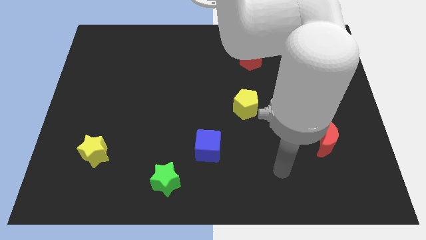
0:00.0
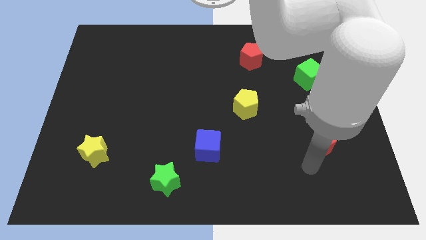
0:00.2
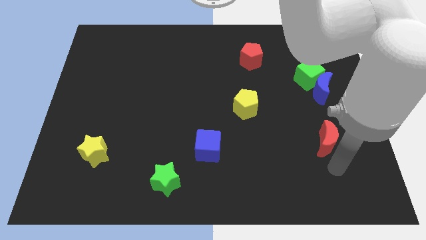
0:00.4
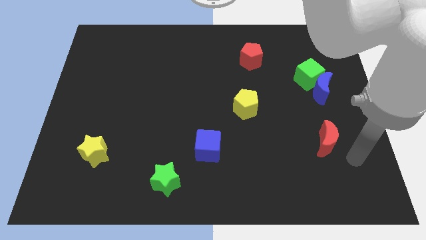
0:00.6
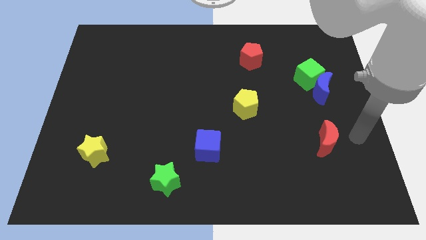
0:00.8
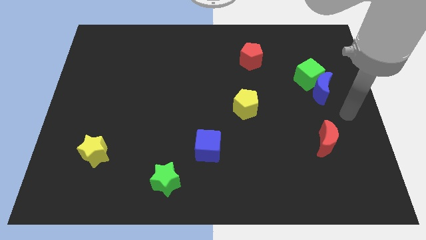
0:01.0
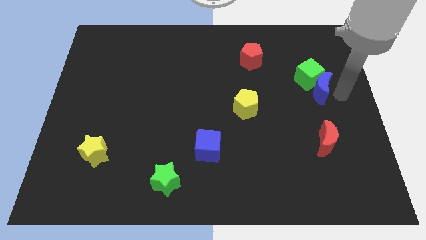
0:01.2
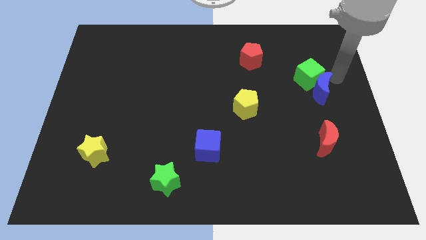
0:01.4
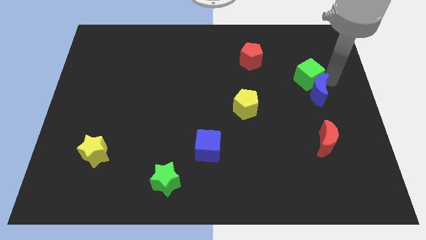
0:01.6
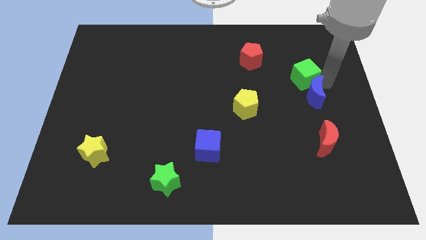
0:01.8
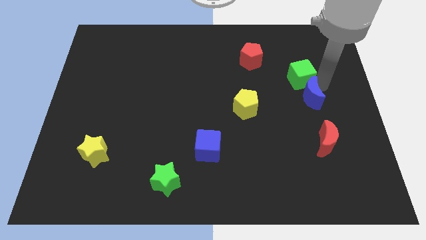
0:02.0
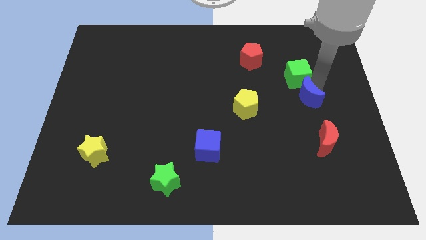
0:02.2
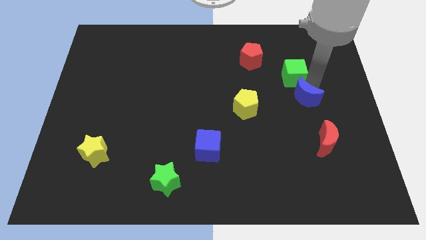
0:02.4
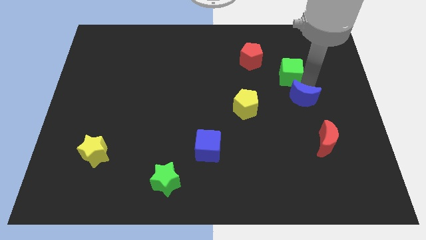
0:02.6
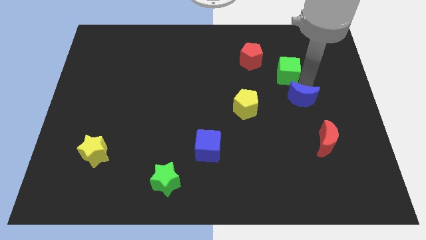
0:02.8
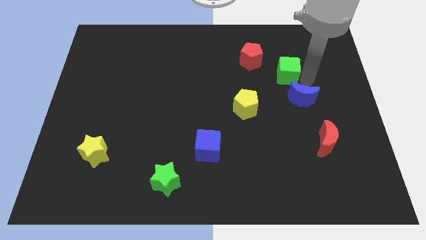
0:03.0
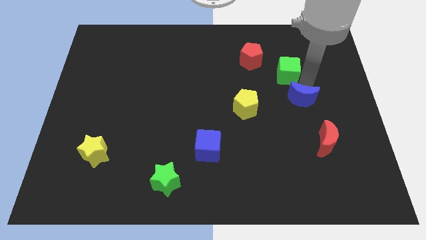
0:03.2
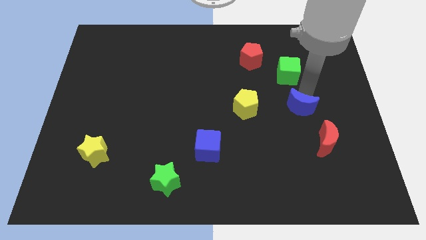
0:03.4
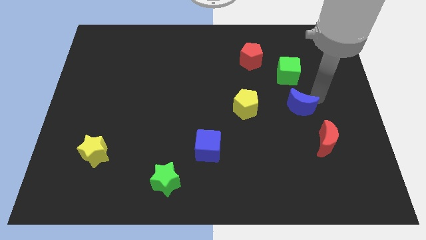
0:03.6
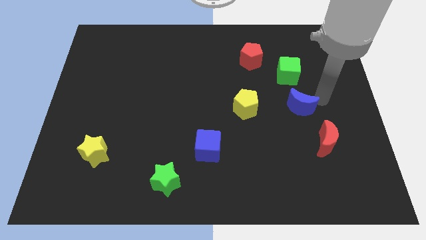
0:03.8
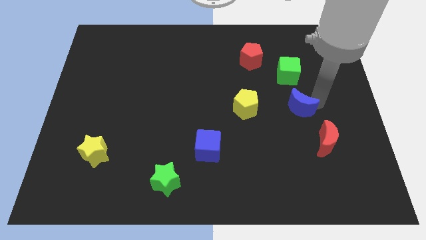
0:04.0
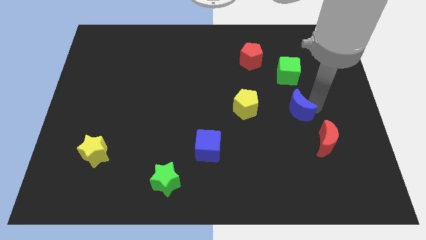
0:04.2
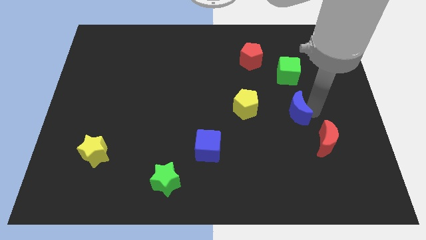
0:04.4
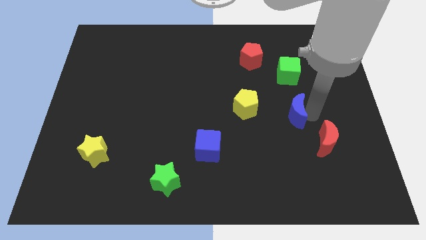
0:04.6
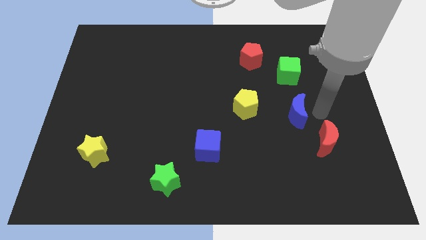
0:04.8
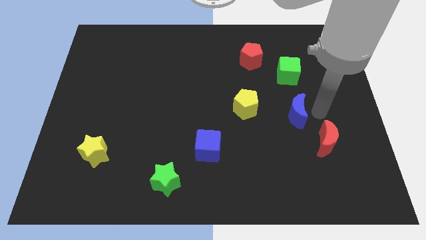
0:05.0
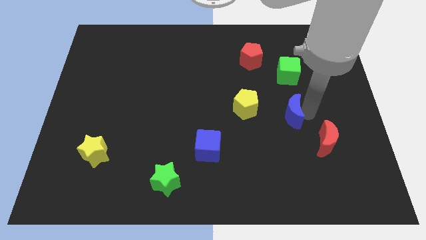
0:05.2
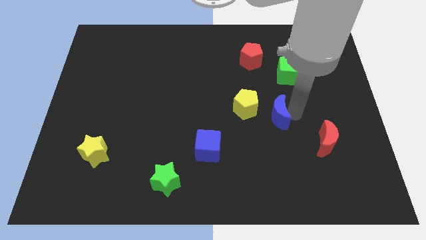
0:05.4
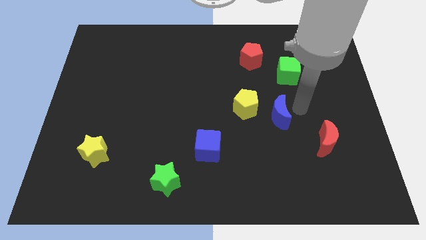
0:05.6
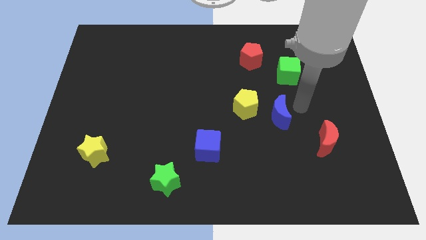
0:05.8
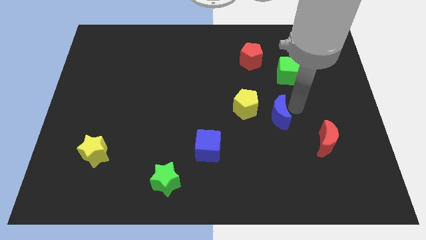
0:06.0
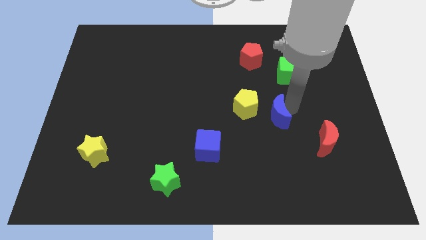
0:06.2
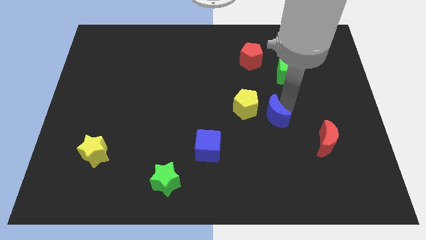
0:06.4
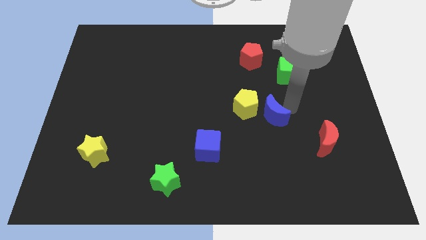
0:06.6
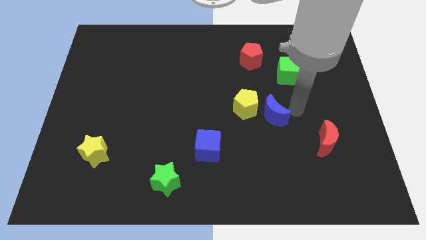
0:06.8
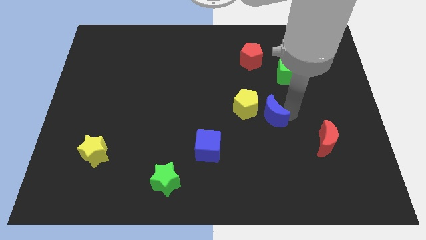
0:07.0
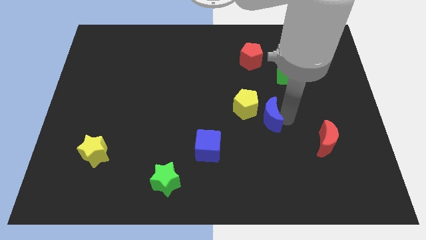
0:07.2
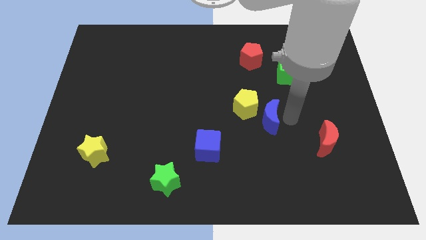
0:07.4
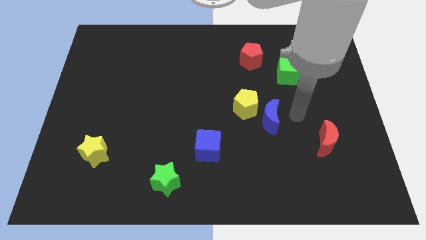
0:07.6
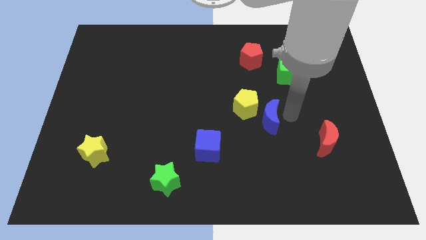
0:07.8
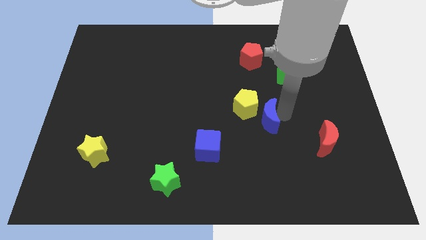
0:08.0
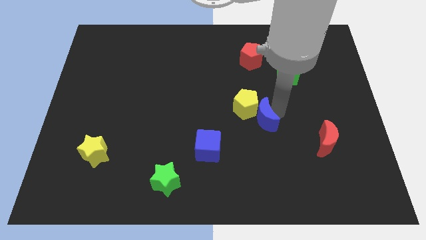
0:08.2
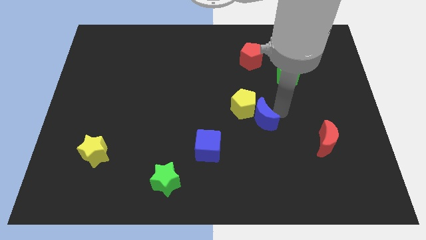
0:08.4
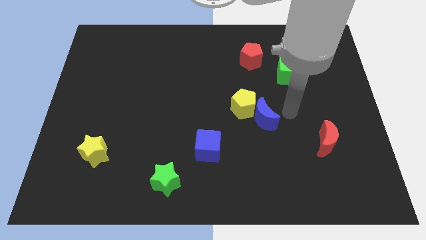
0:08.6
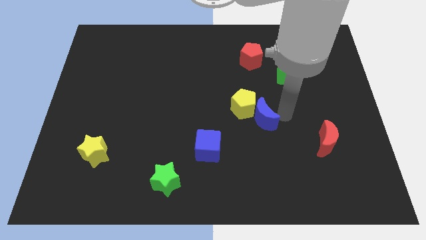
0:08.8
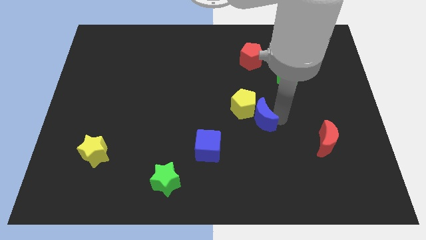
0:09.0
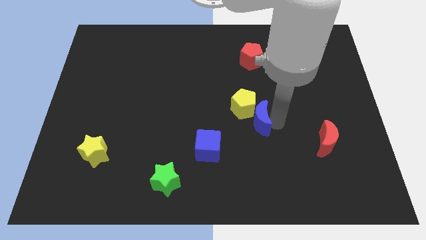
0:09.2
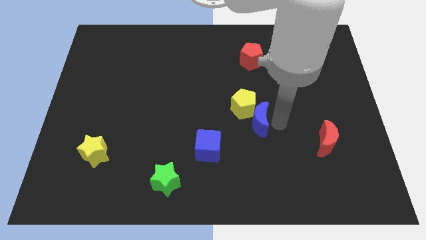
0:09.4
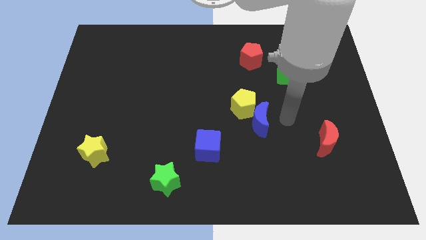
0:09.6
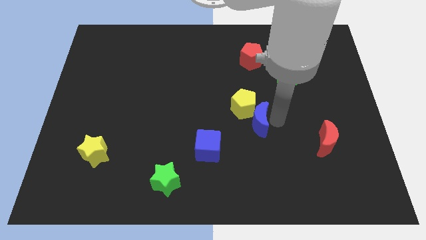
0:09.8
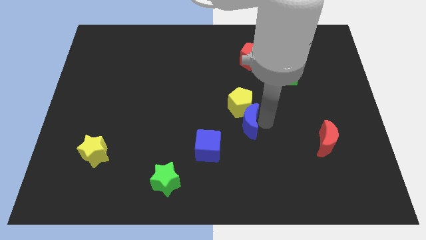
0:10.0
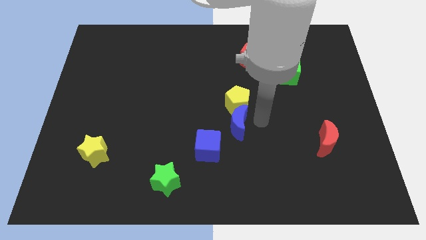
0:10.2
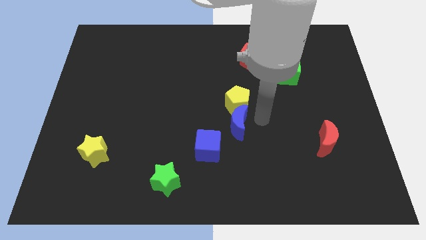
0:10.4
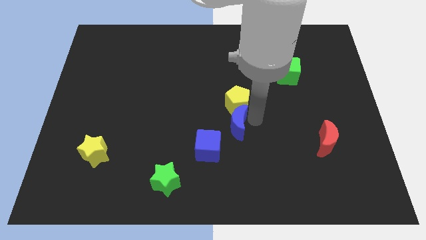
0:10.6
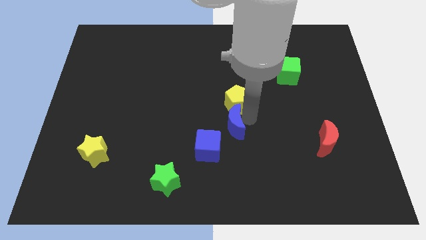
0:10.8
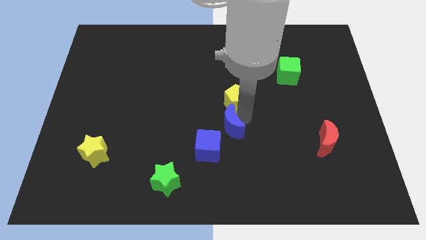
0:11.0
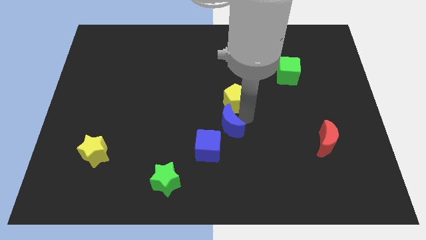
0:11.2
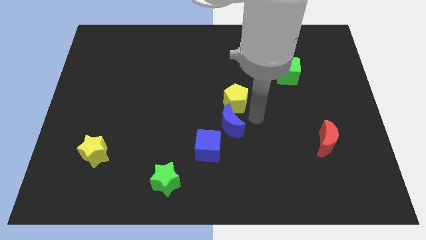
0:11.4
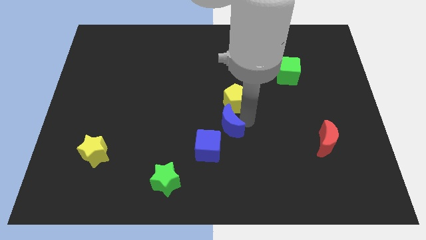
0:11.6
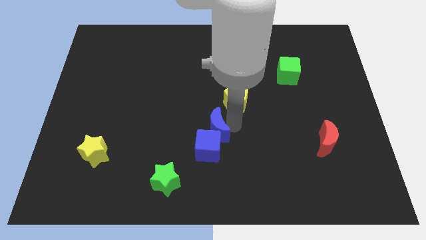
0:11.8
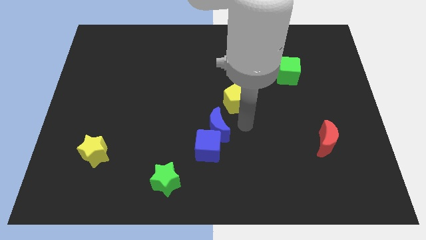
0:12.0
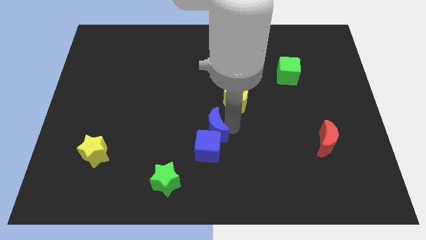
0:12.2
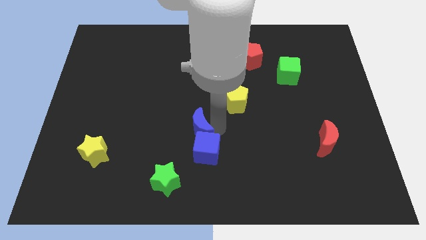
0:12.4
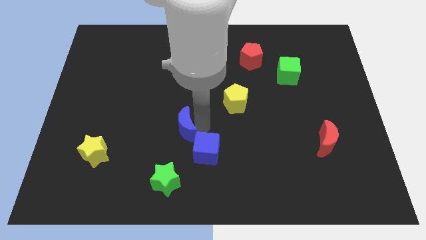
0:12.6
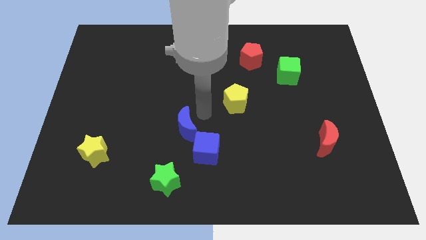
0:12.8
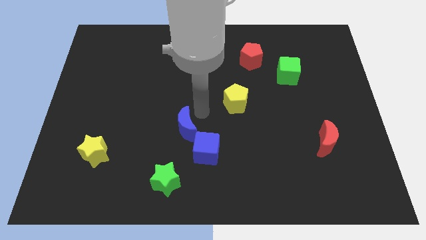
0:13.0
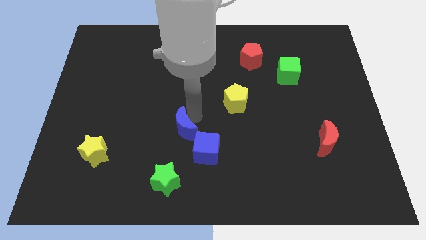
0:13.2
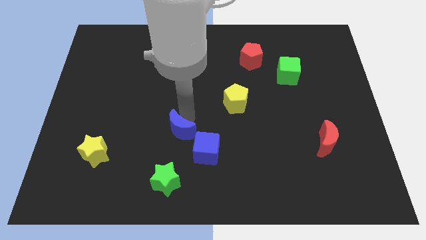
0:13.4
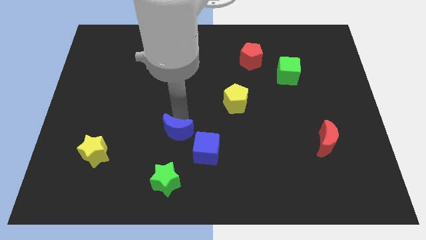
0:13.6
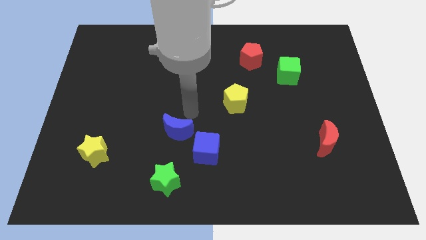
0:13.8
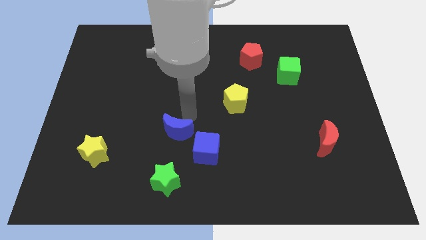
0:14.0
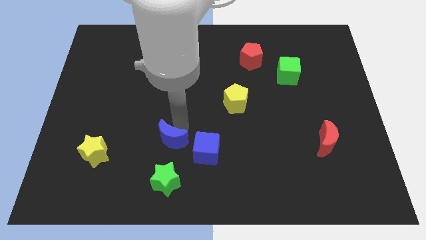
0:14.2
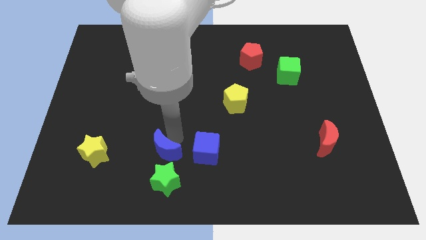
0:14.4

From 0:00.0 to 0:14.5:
move the blue moon to the top left of the green star

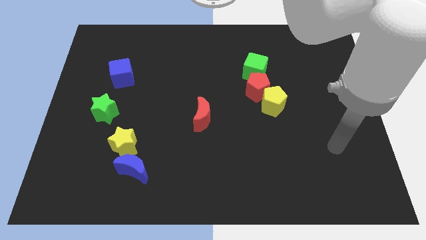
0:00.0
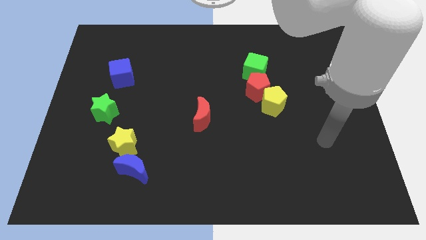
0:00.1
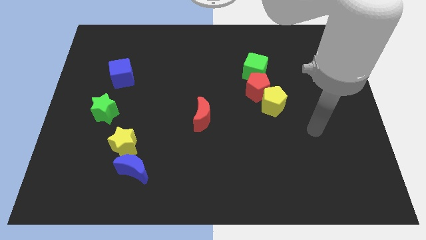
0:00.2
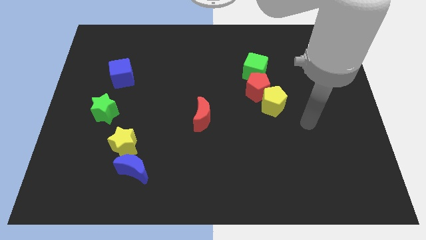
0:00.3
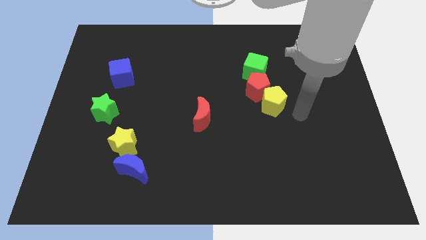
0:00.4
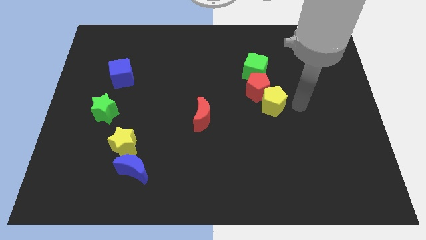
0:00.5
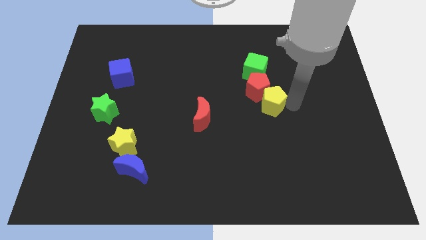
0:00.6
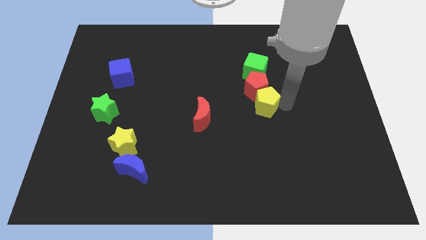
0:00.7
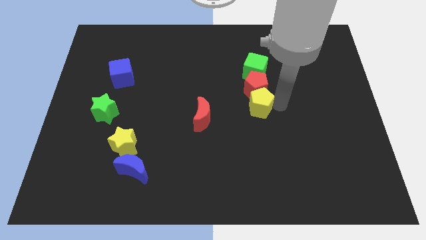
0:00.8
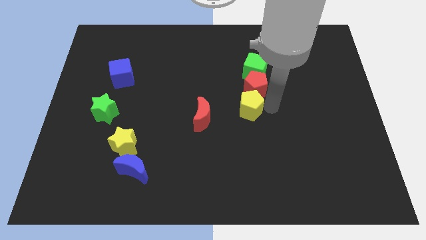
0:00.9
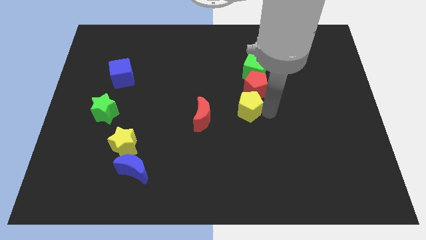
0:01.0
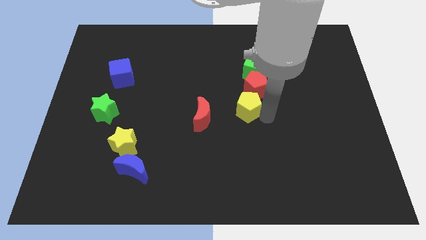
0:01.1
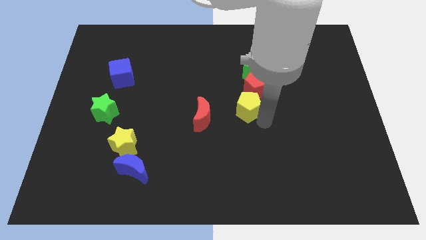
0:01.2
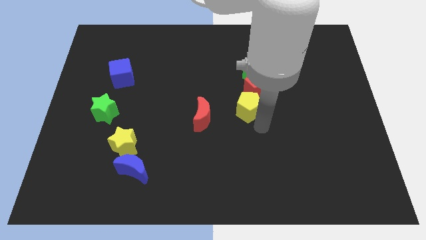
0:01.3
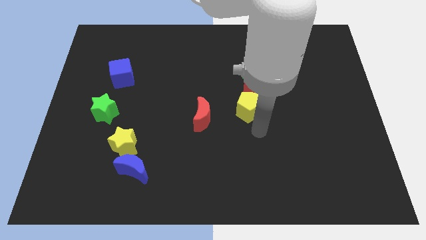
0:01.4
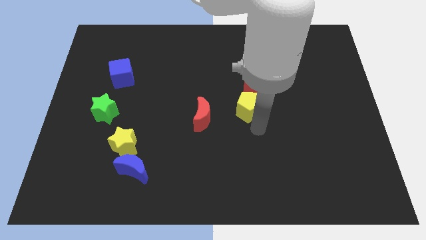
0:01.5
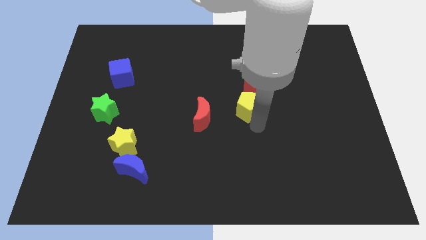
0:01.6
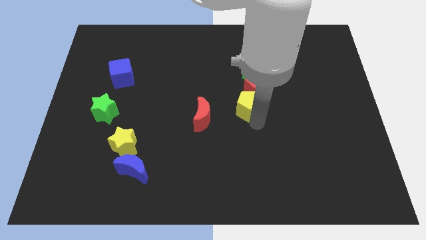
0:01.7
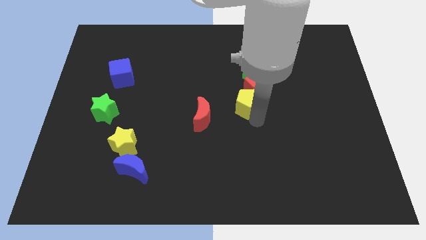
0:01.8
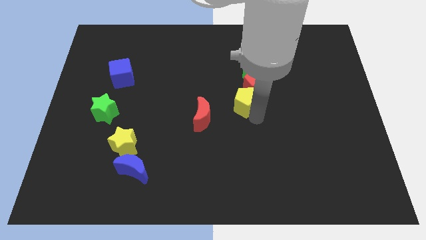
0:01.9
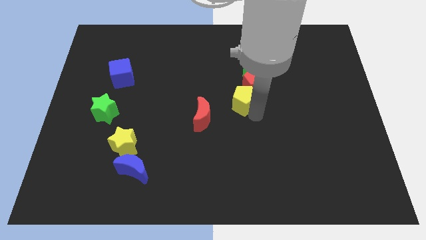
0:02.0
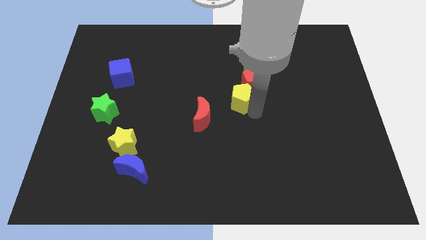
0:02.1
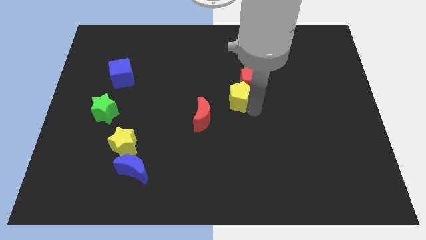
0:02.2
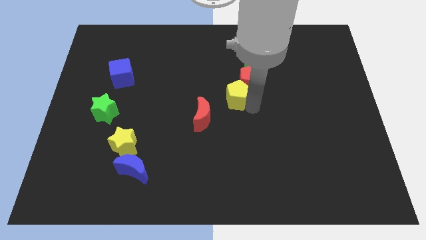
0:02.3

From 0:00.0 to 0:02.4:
push the yellow pentagon to the bottom left of the green cube
